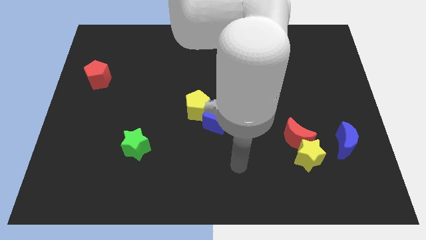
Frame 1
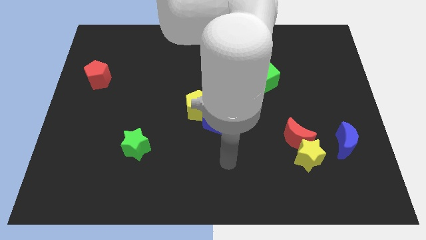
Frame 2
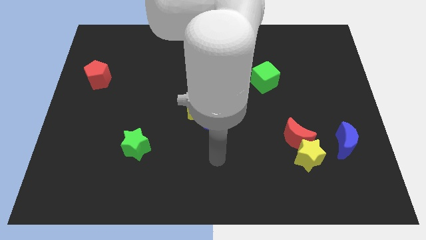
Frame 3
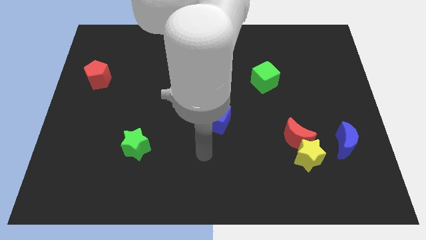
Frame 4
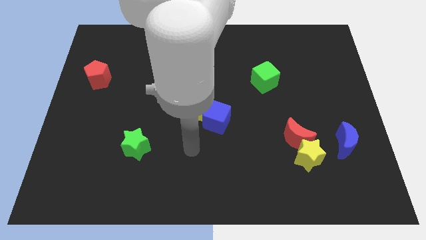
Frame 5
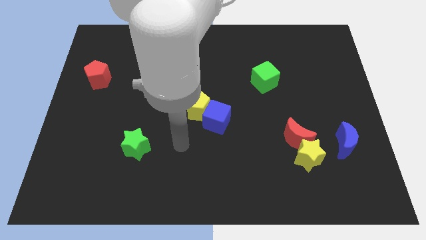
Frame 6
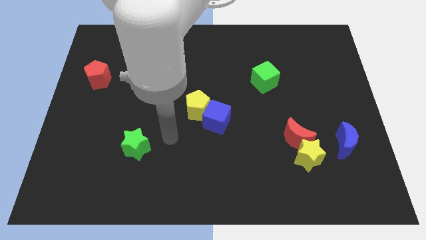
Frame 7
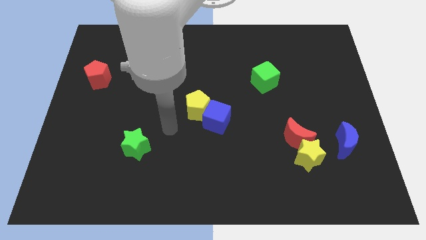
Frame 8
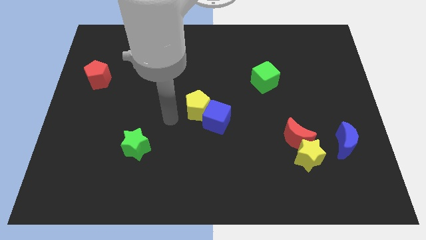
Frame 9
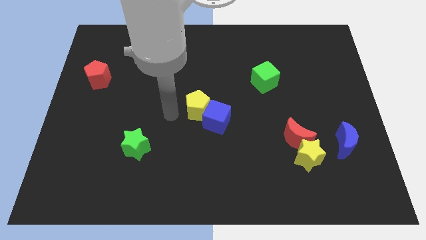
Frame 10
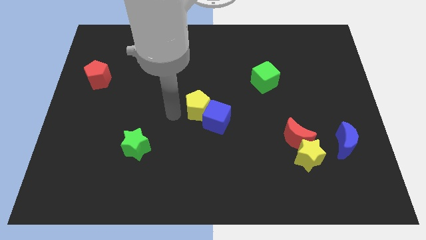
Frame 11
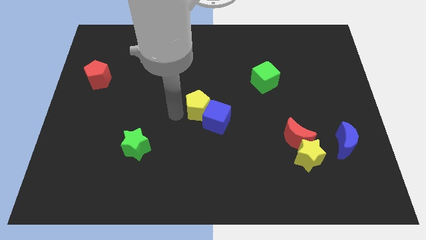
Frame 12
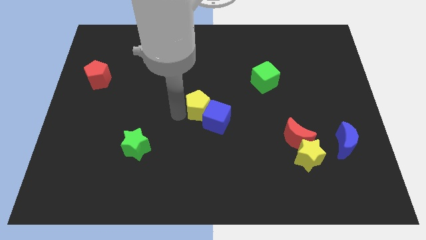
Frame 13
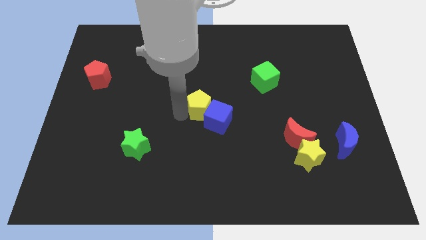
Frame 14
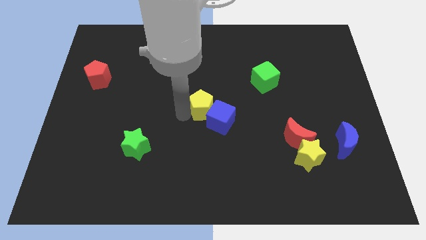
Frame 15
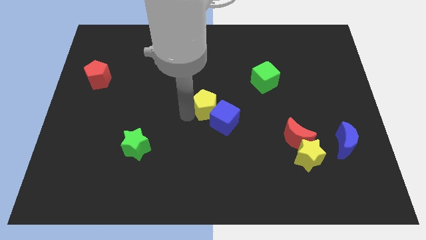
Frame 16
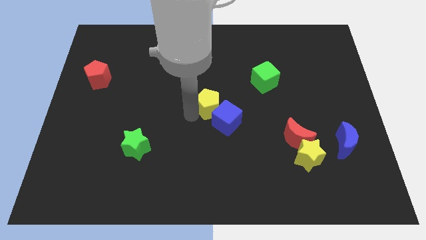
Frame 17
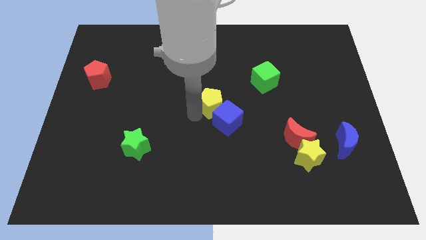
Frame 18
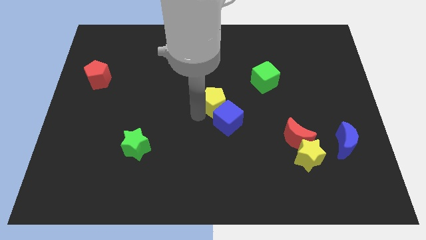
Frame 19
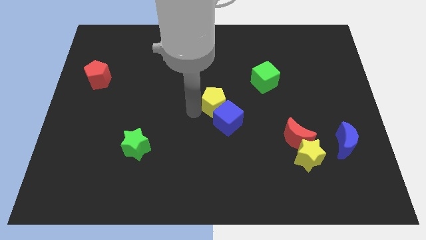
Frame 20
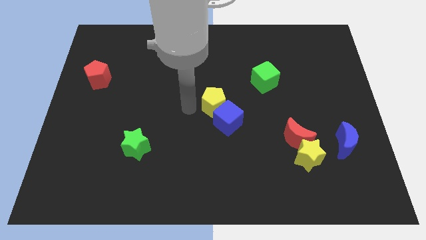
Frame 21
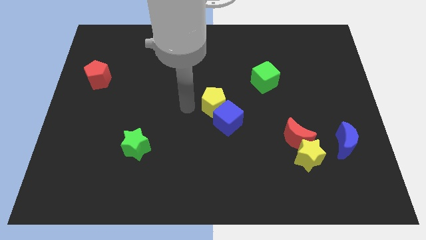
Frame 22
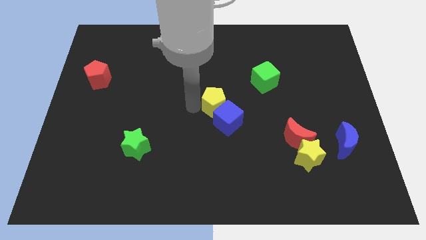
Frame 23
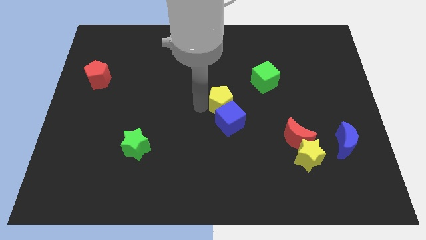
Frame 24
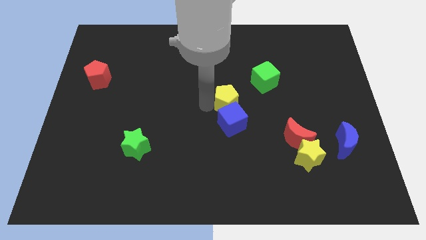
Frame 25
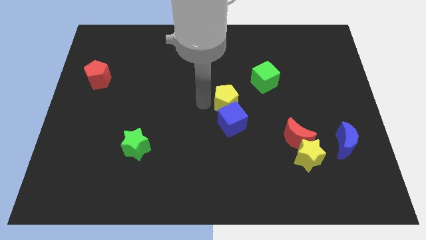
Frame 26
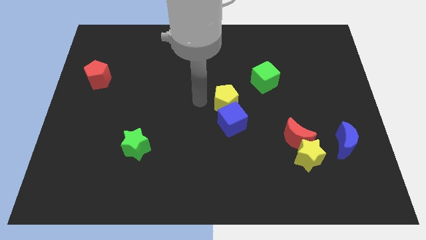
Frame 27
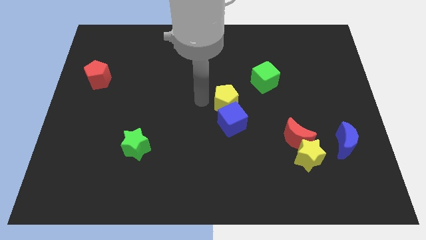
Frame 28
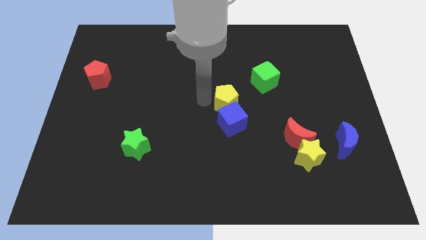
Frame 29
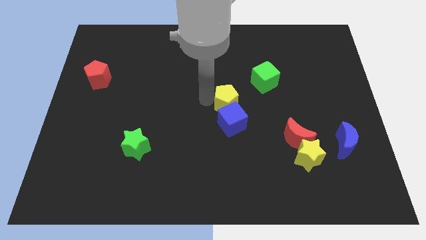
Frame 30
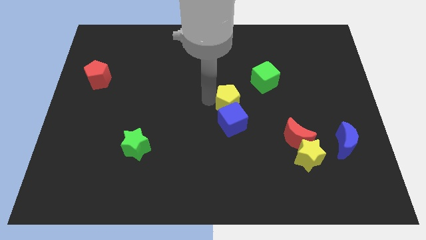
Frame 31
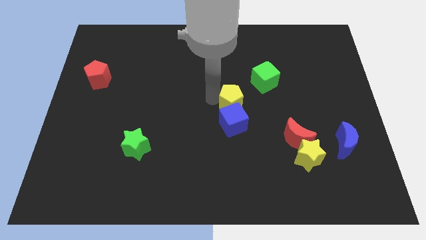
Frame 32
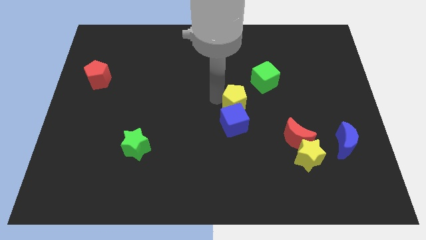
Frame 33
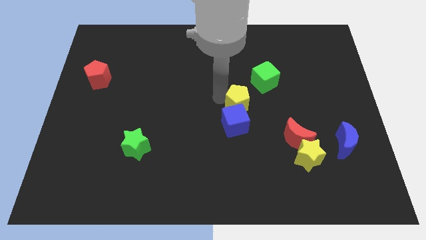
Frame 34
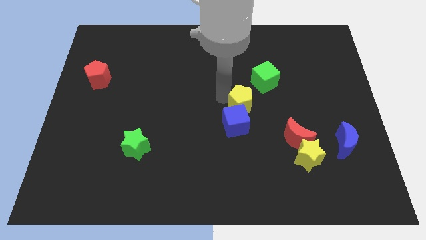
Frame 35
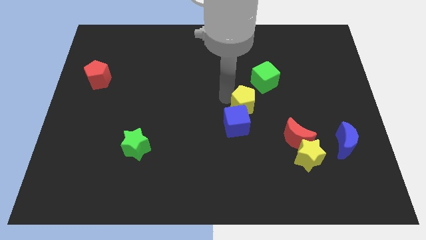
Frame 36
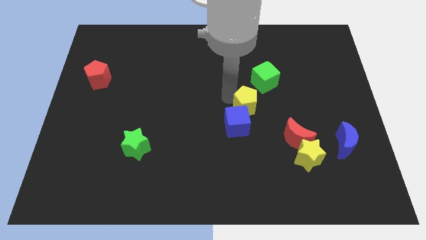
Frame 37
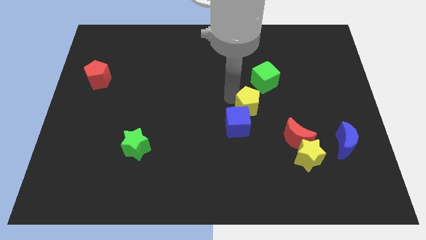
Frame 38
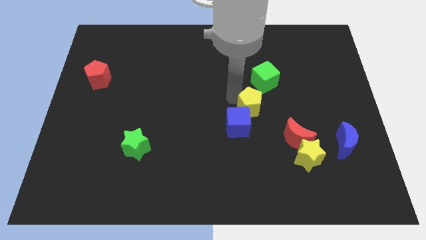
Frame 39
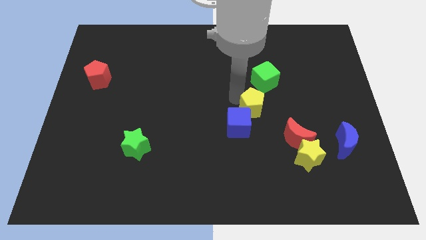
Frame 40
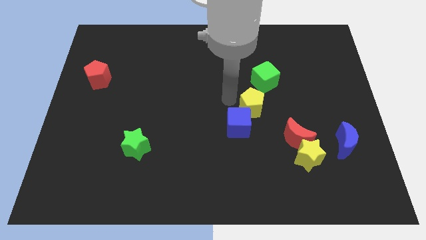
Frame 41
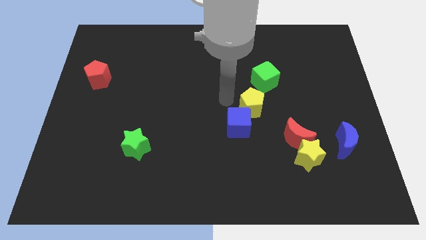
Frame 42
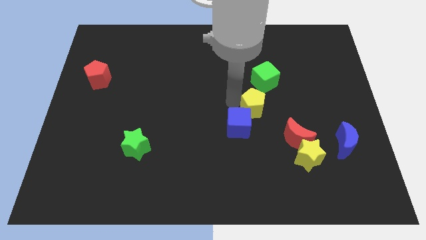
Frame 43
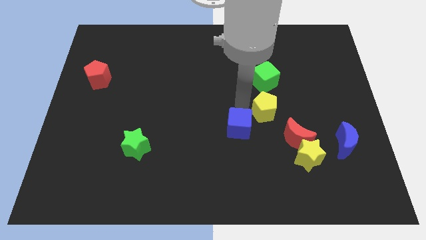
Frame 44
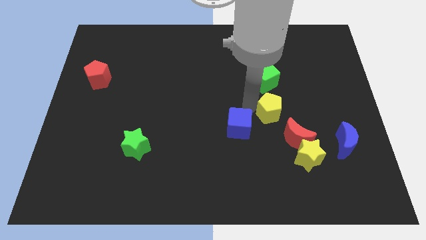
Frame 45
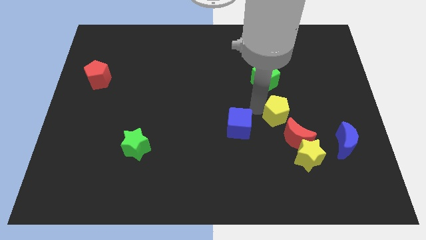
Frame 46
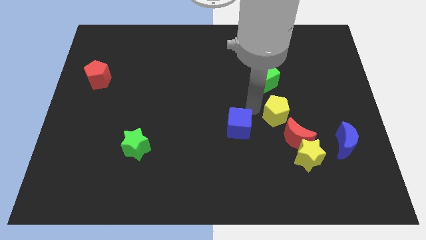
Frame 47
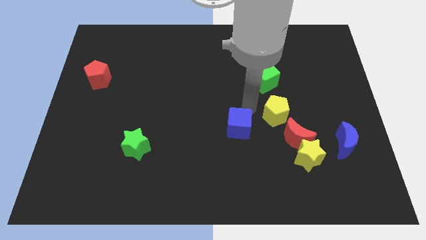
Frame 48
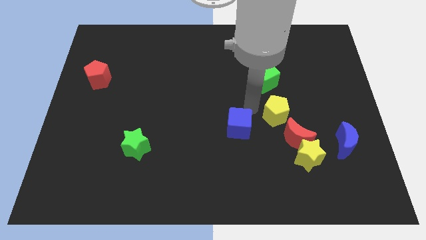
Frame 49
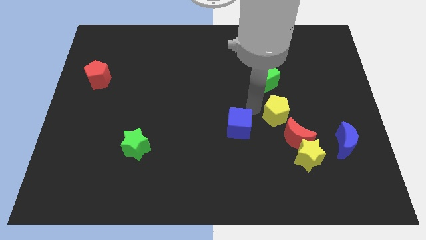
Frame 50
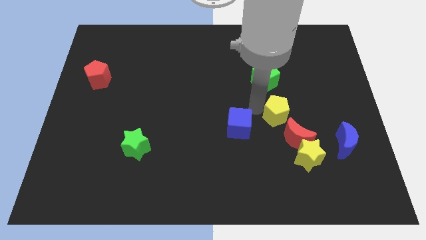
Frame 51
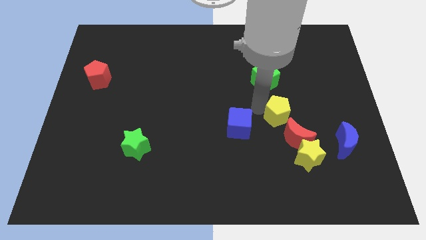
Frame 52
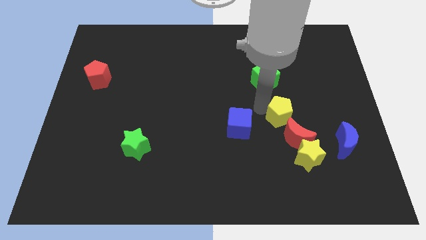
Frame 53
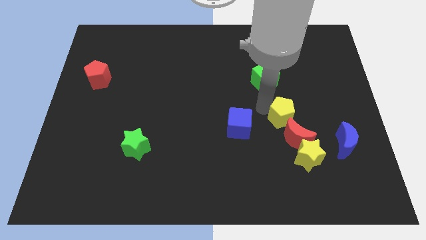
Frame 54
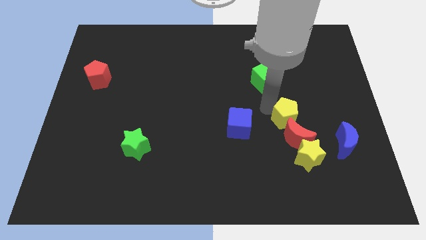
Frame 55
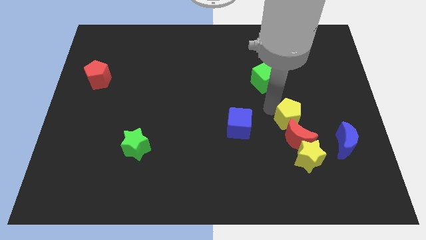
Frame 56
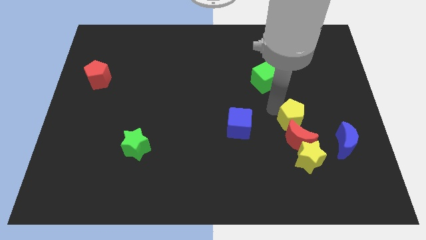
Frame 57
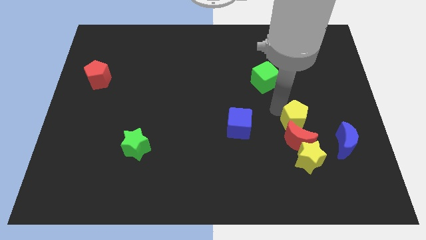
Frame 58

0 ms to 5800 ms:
push the yellow pentagon diagonally up and to the left of the blue moon
